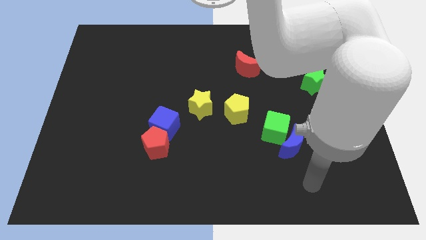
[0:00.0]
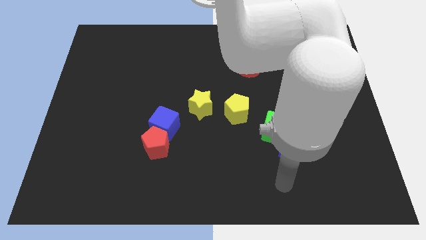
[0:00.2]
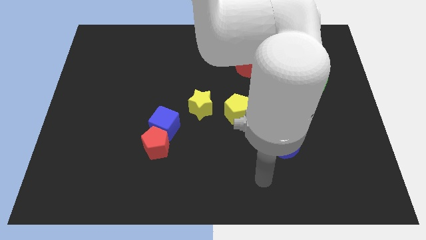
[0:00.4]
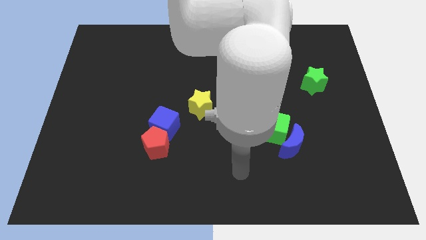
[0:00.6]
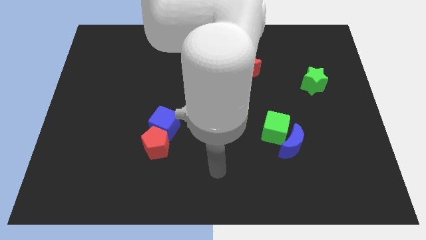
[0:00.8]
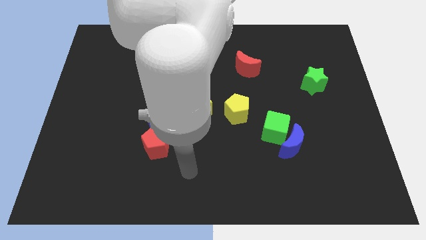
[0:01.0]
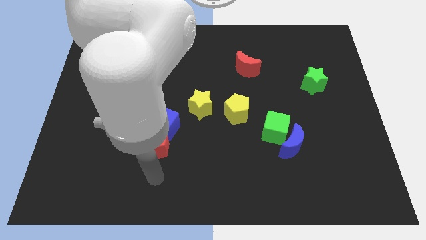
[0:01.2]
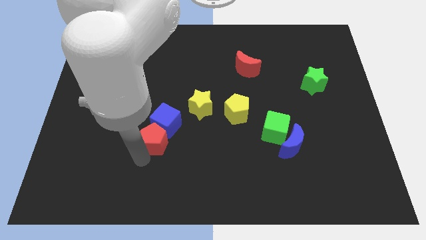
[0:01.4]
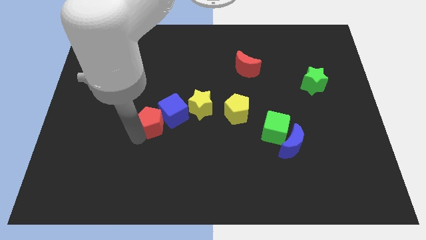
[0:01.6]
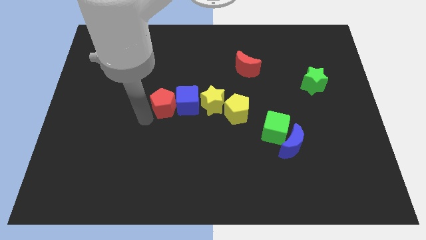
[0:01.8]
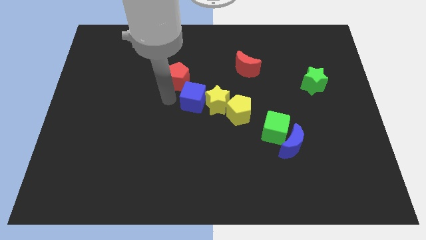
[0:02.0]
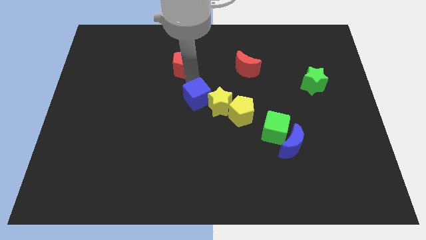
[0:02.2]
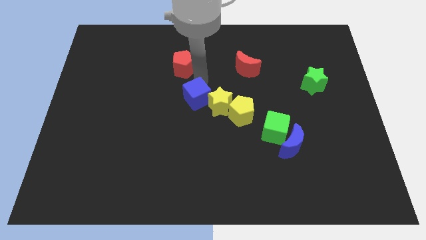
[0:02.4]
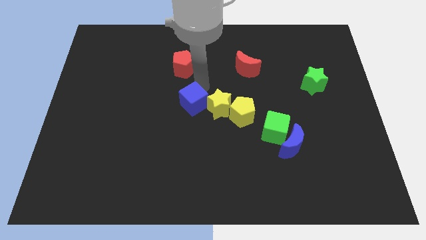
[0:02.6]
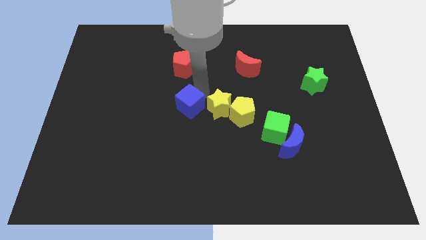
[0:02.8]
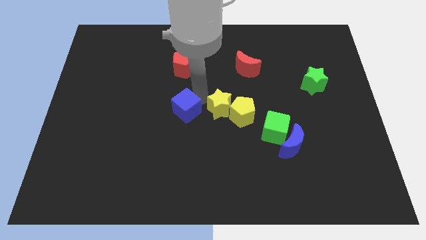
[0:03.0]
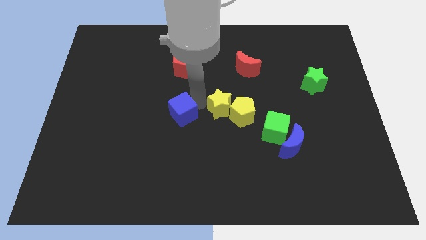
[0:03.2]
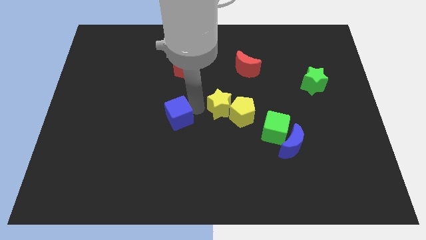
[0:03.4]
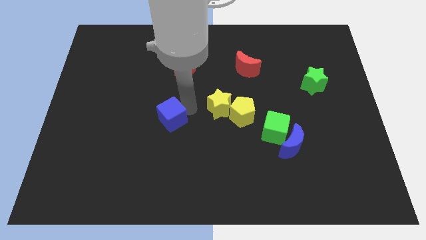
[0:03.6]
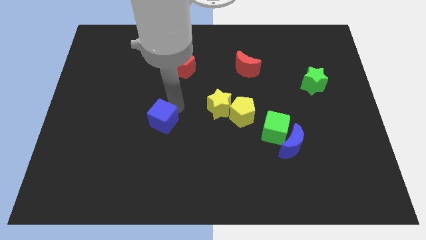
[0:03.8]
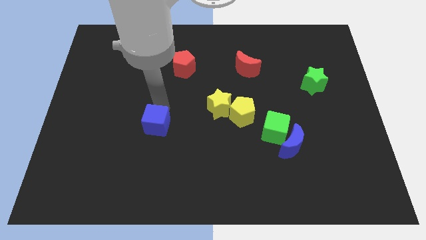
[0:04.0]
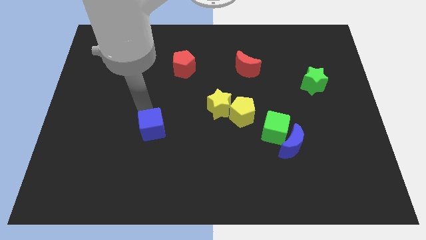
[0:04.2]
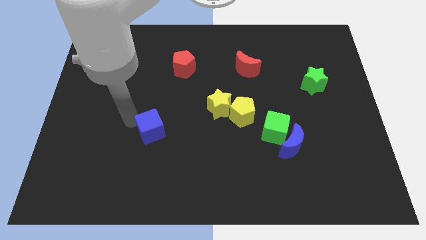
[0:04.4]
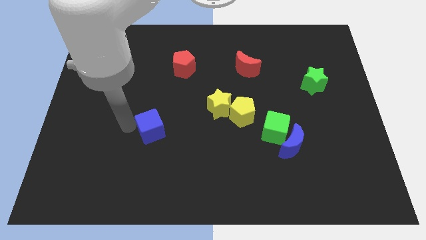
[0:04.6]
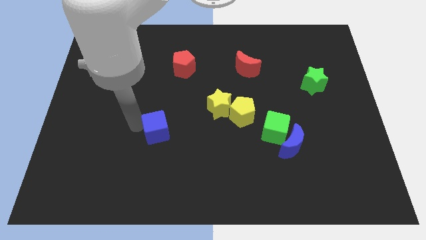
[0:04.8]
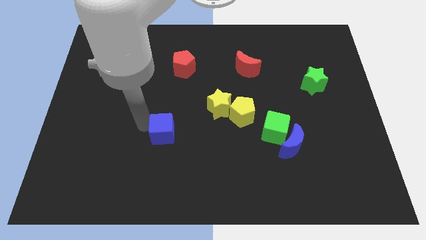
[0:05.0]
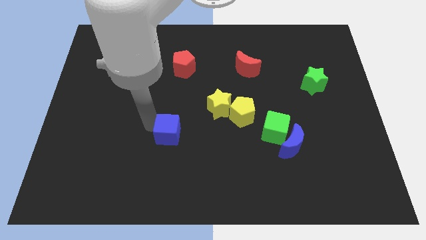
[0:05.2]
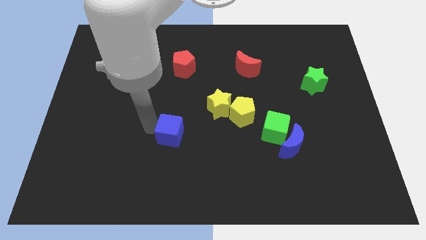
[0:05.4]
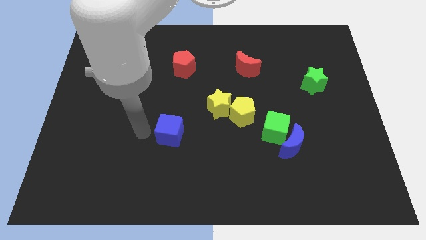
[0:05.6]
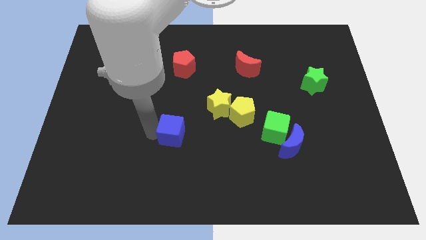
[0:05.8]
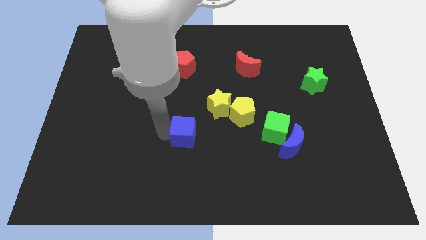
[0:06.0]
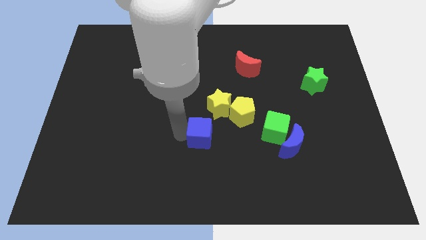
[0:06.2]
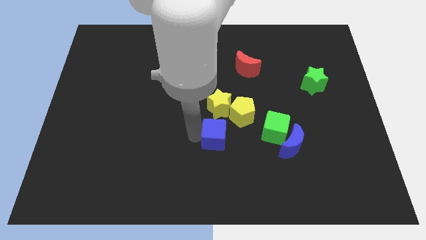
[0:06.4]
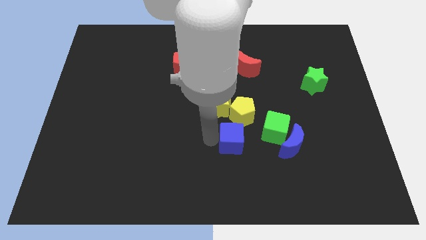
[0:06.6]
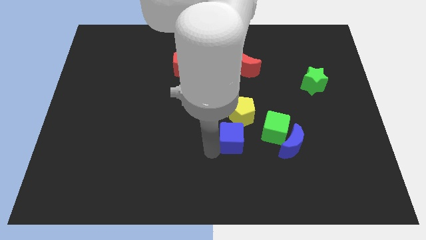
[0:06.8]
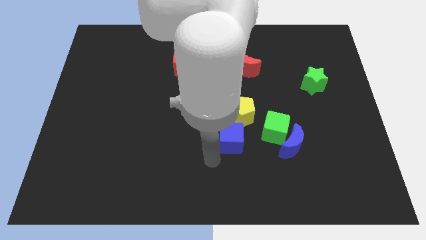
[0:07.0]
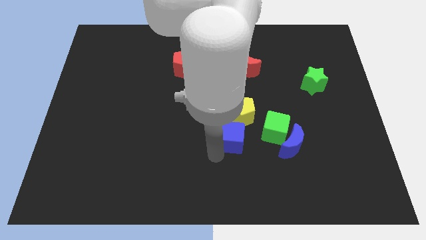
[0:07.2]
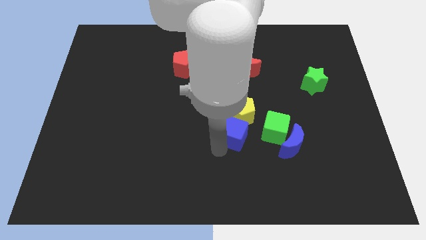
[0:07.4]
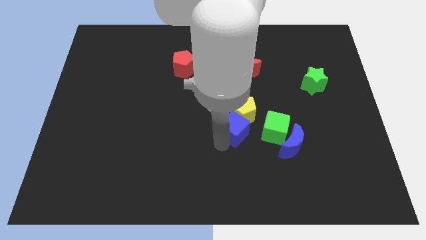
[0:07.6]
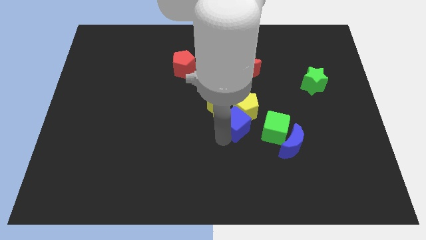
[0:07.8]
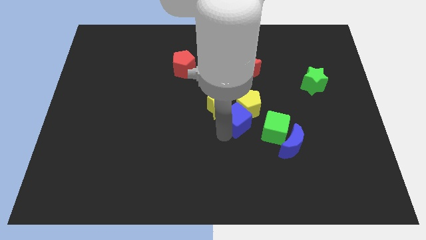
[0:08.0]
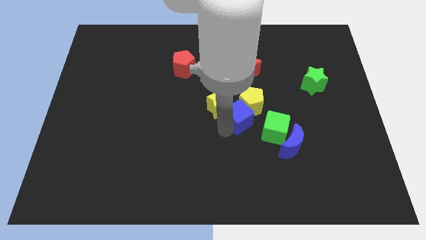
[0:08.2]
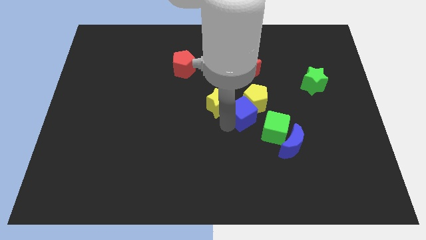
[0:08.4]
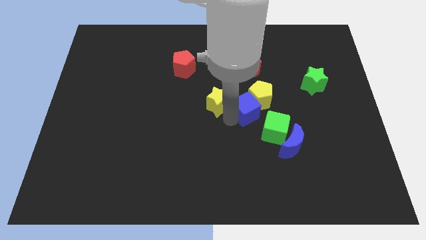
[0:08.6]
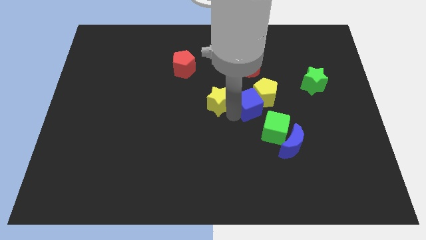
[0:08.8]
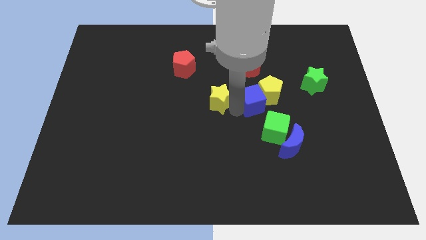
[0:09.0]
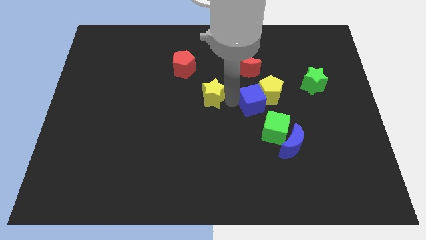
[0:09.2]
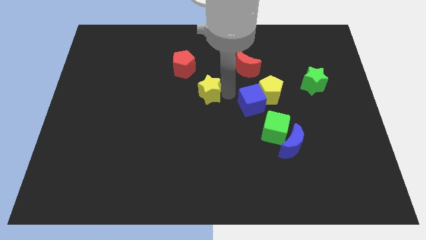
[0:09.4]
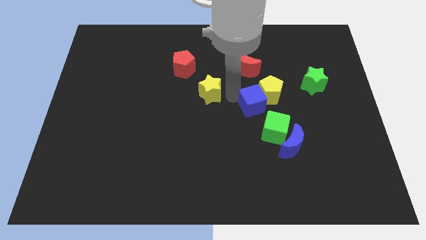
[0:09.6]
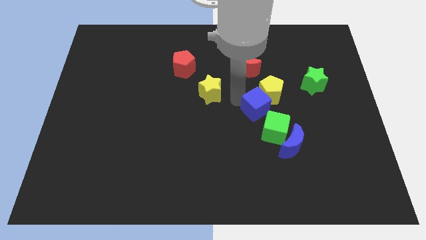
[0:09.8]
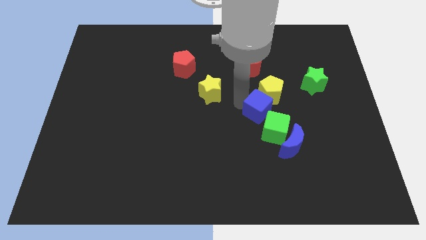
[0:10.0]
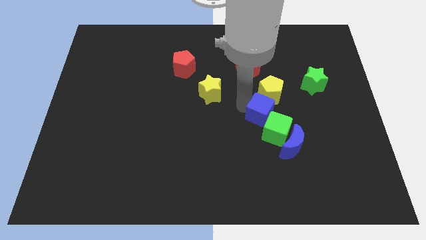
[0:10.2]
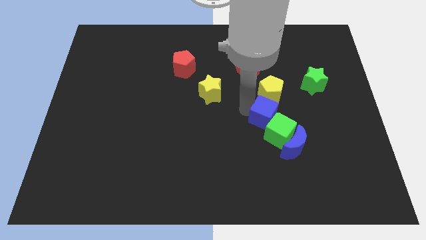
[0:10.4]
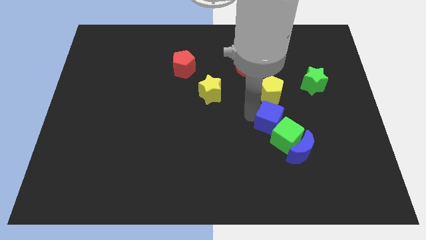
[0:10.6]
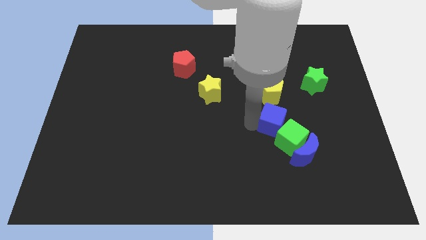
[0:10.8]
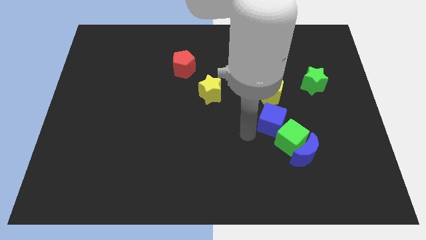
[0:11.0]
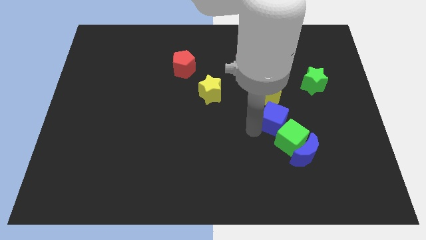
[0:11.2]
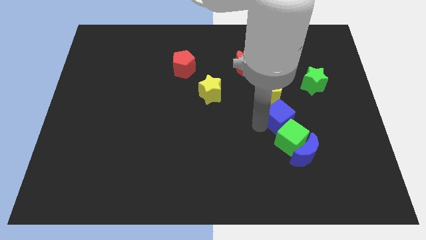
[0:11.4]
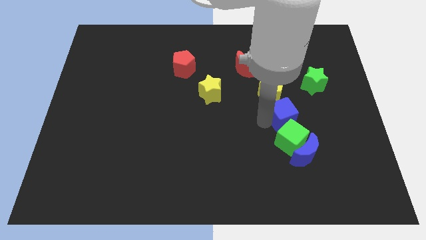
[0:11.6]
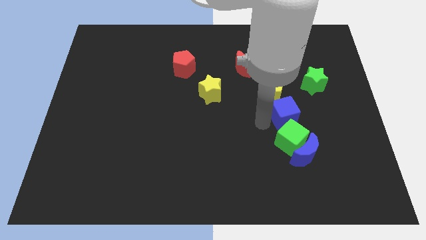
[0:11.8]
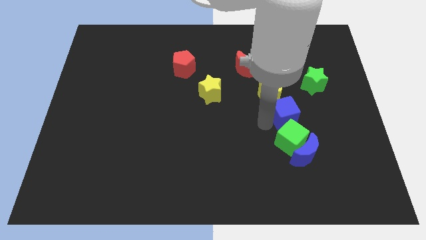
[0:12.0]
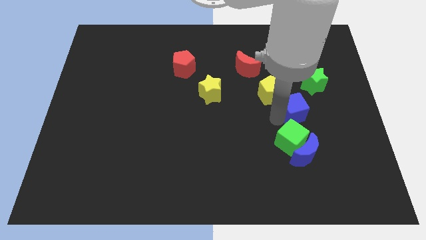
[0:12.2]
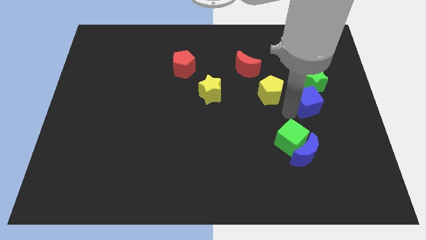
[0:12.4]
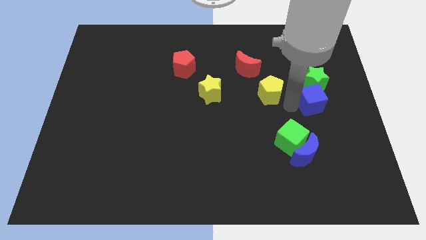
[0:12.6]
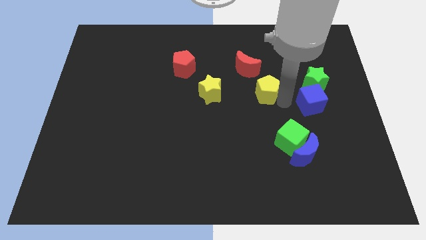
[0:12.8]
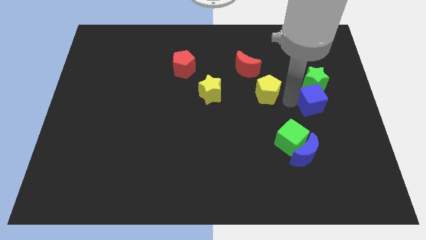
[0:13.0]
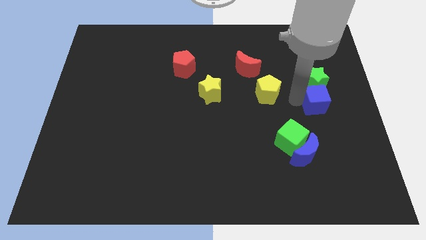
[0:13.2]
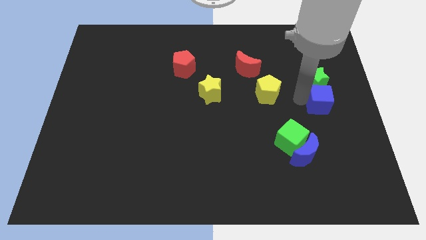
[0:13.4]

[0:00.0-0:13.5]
slide the blue cube to the center right
